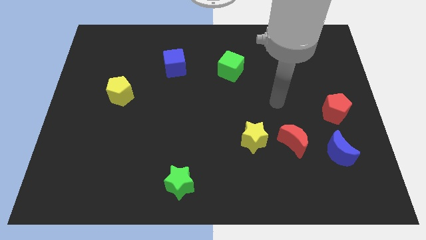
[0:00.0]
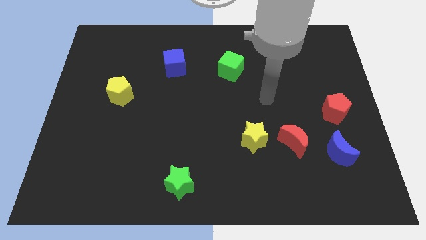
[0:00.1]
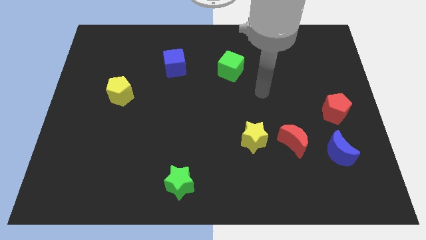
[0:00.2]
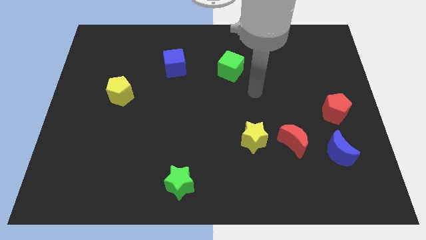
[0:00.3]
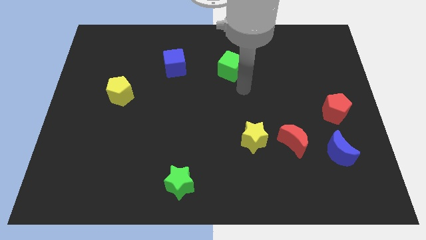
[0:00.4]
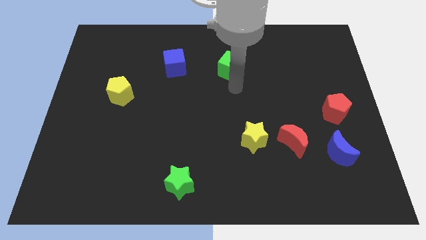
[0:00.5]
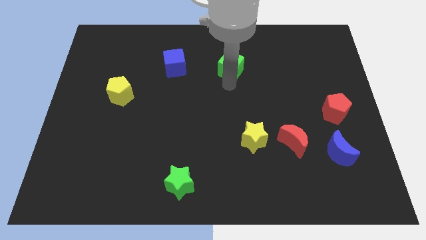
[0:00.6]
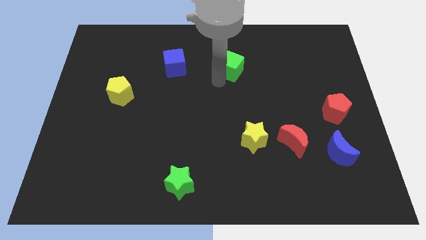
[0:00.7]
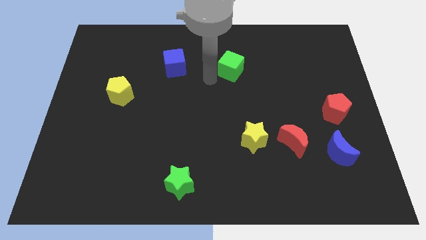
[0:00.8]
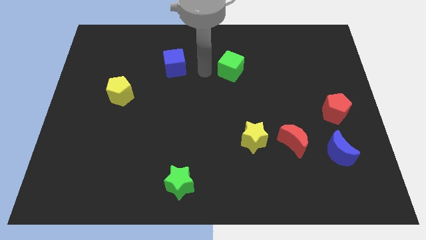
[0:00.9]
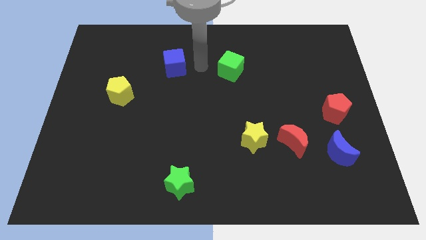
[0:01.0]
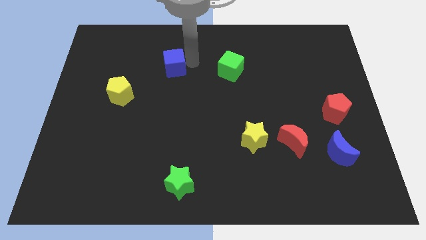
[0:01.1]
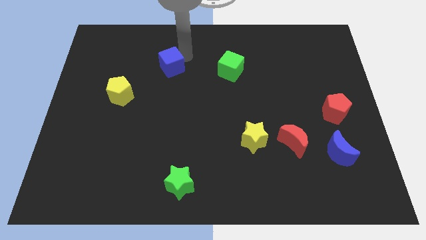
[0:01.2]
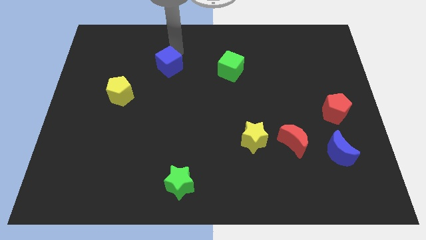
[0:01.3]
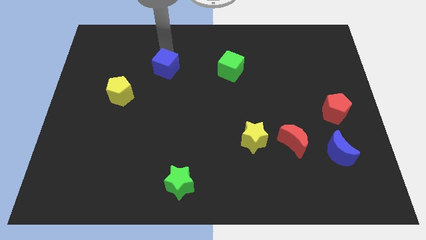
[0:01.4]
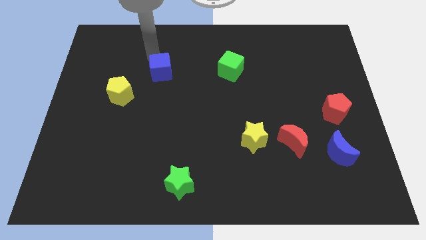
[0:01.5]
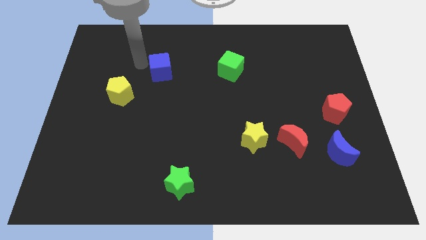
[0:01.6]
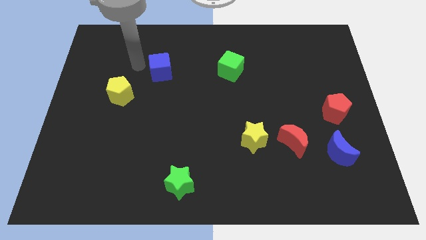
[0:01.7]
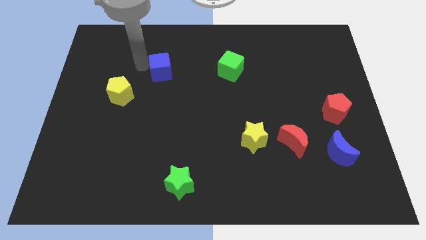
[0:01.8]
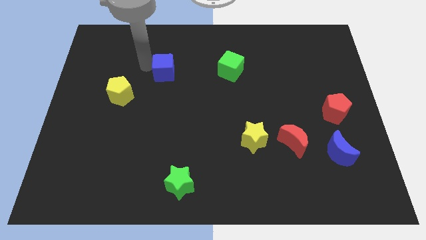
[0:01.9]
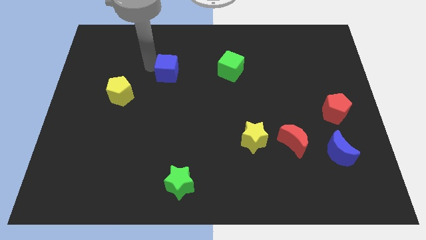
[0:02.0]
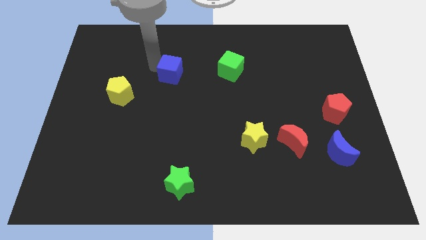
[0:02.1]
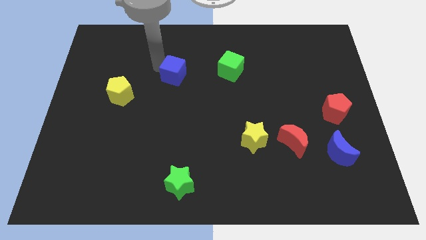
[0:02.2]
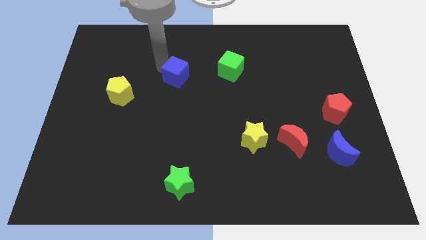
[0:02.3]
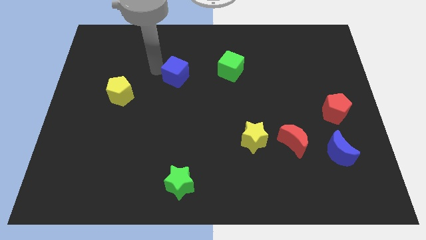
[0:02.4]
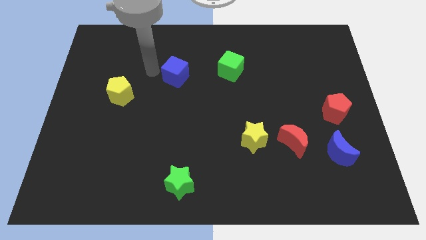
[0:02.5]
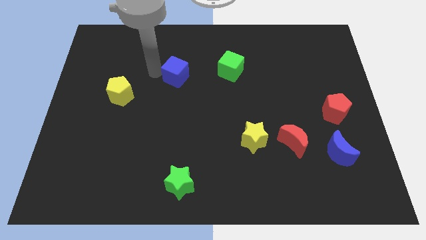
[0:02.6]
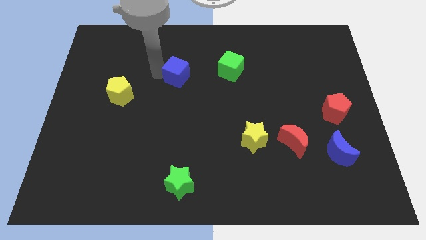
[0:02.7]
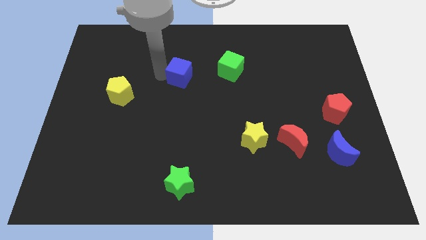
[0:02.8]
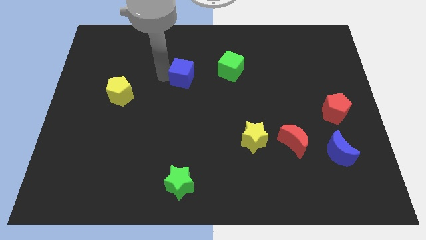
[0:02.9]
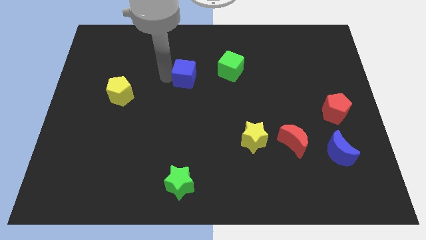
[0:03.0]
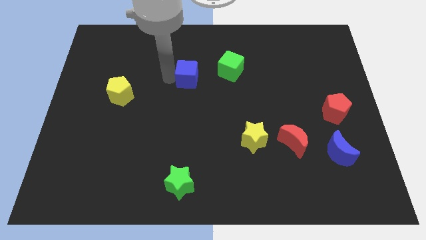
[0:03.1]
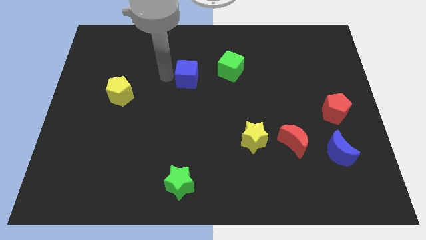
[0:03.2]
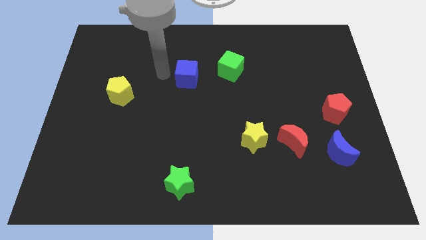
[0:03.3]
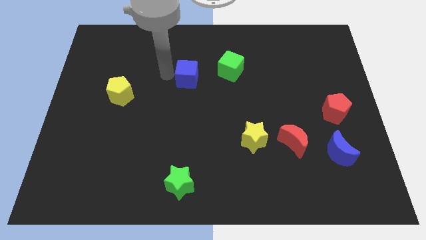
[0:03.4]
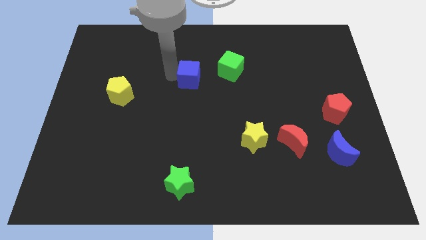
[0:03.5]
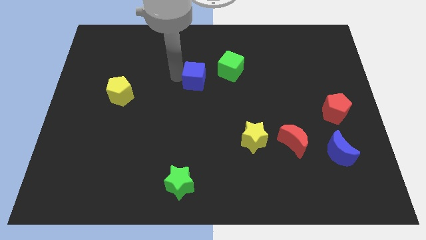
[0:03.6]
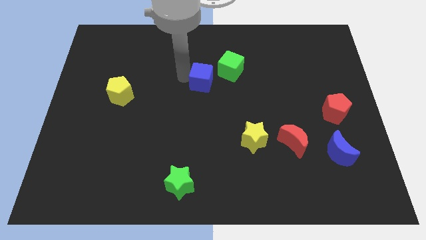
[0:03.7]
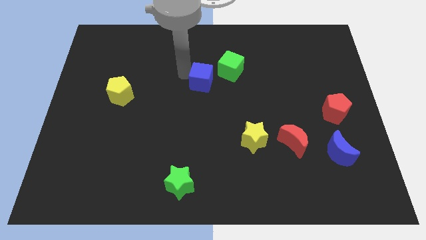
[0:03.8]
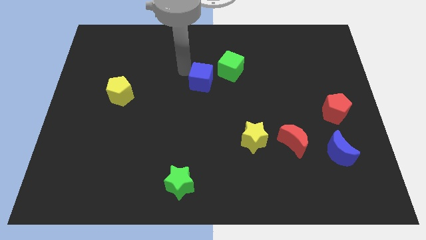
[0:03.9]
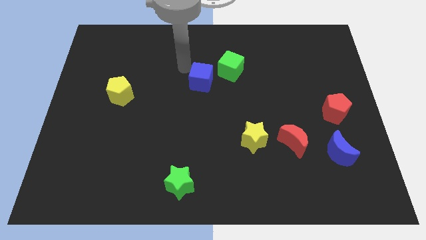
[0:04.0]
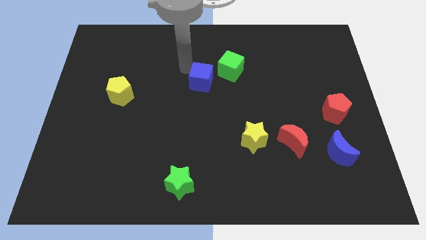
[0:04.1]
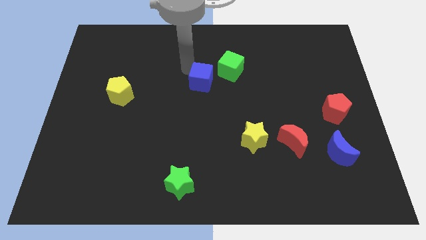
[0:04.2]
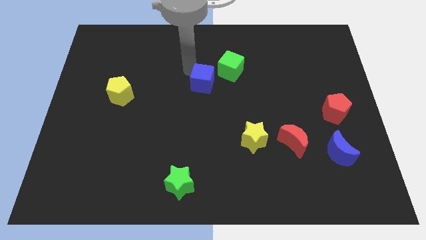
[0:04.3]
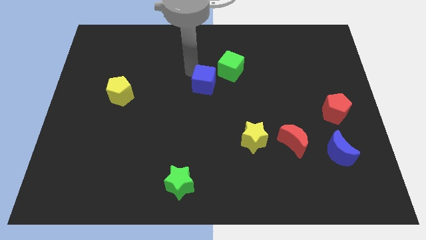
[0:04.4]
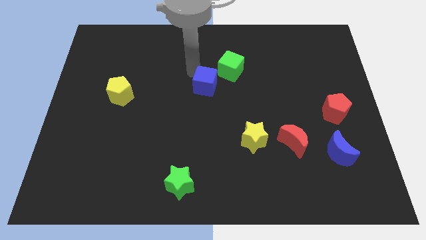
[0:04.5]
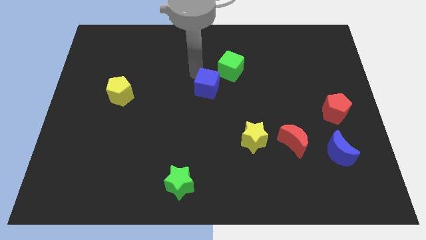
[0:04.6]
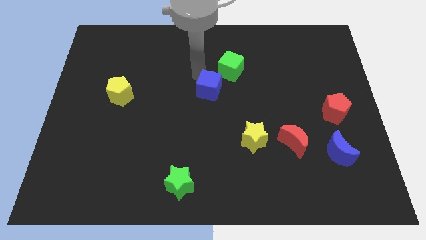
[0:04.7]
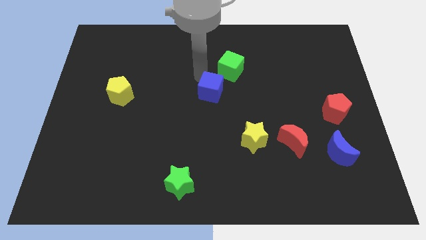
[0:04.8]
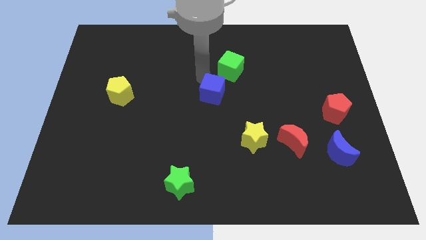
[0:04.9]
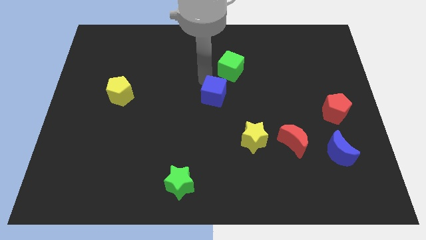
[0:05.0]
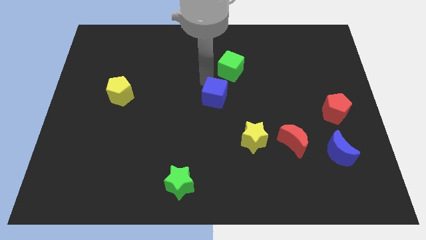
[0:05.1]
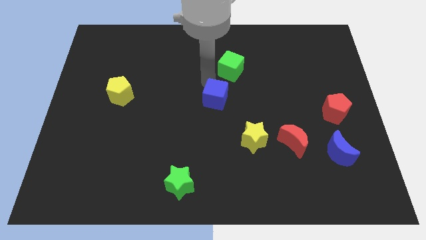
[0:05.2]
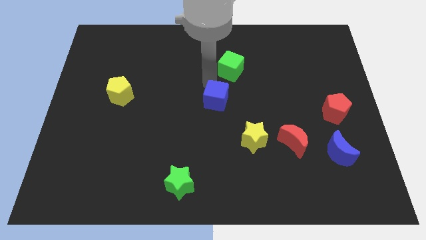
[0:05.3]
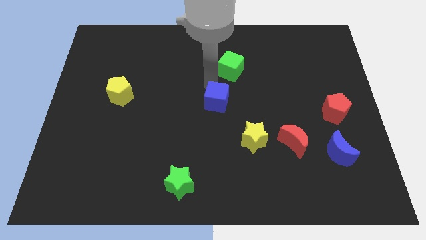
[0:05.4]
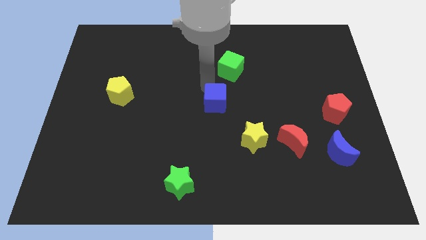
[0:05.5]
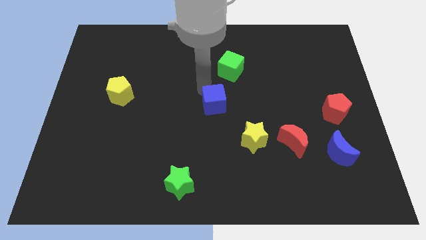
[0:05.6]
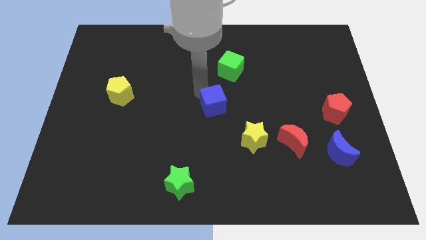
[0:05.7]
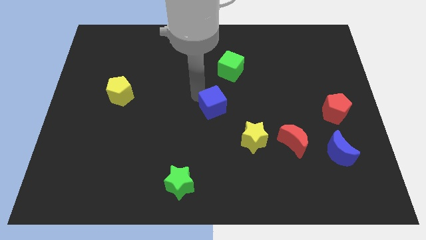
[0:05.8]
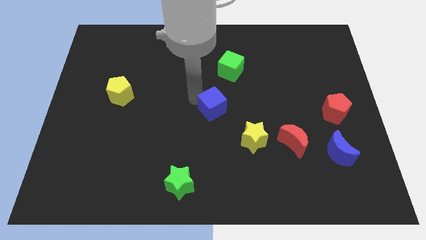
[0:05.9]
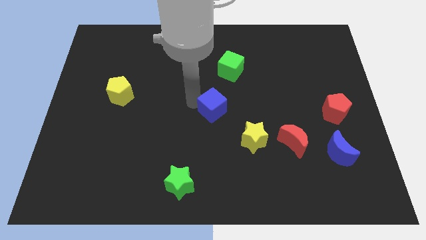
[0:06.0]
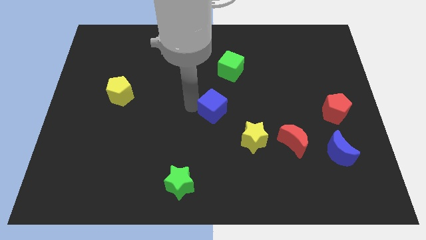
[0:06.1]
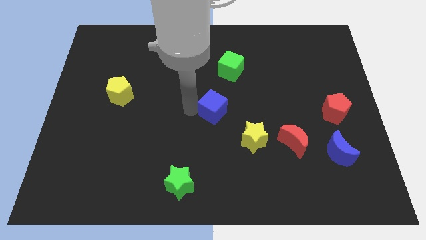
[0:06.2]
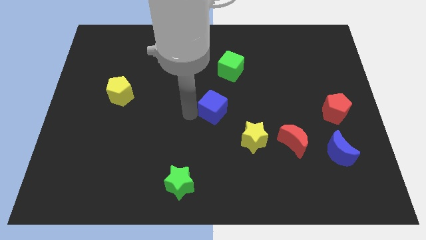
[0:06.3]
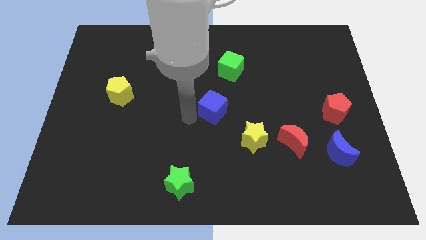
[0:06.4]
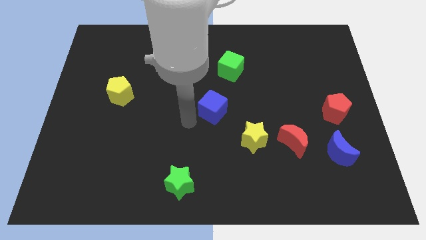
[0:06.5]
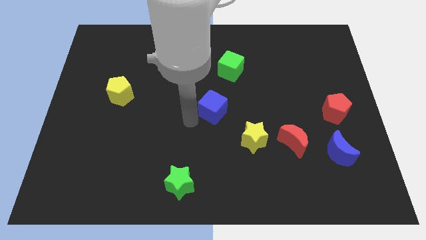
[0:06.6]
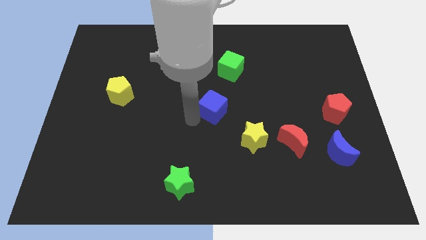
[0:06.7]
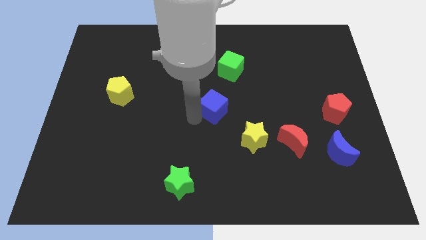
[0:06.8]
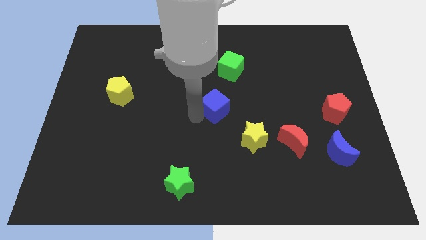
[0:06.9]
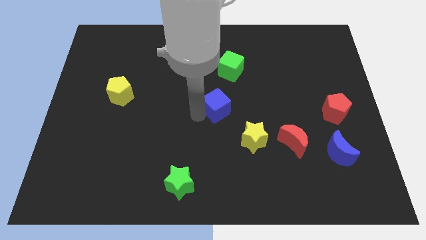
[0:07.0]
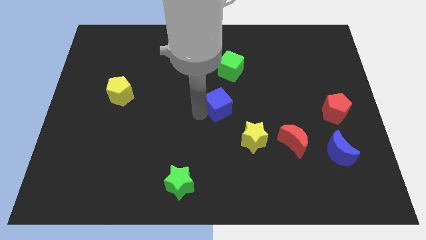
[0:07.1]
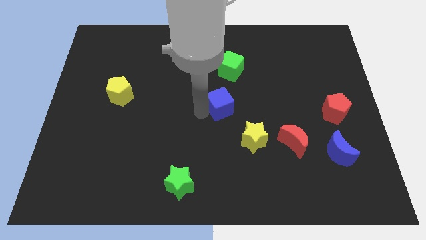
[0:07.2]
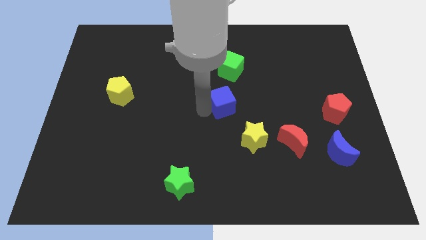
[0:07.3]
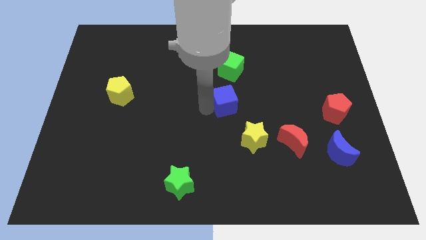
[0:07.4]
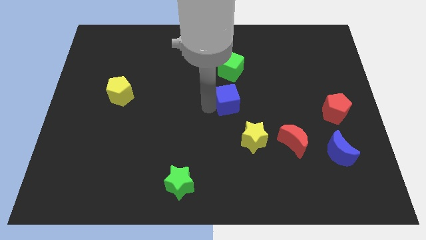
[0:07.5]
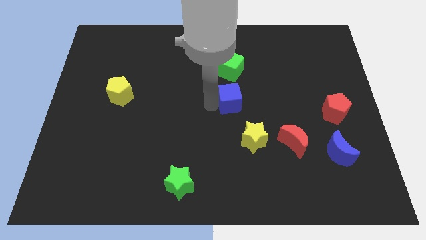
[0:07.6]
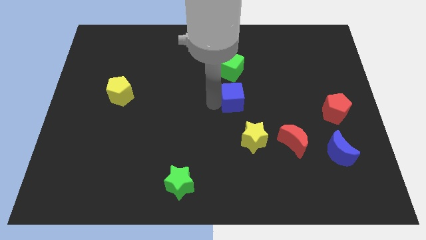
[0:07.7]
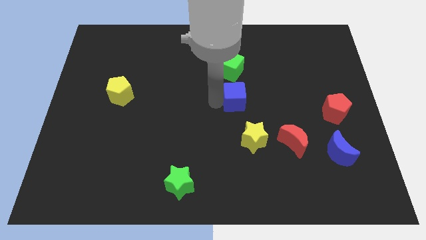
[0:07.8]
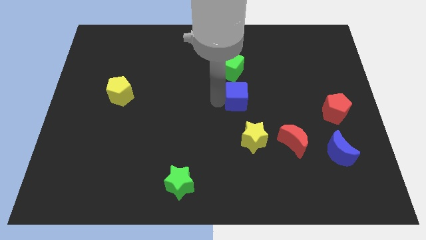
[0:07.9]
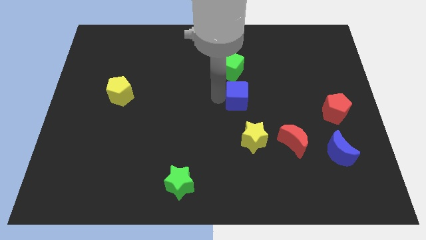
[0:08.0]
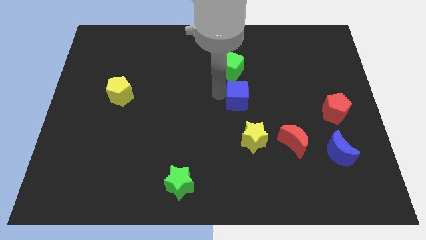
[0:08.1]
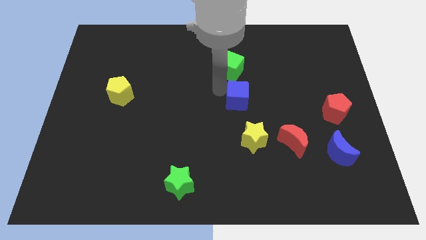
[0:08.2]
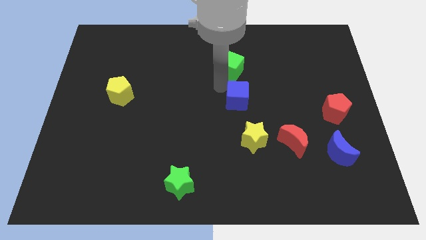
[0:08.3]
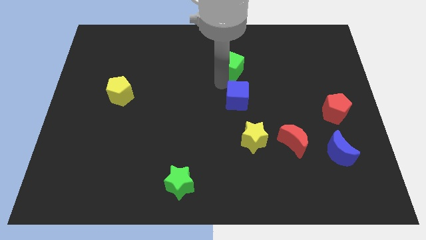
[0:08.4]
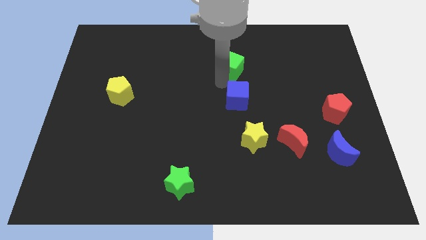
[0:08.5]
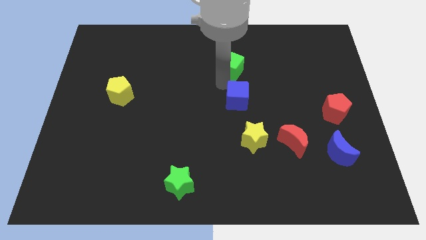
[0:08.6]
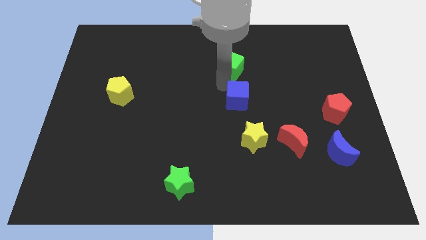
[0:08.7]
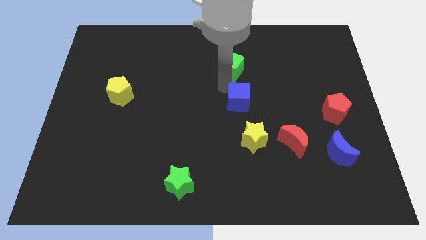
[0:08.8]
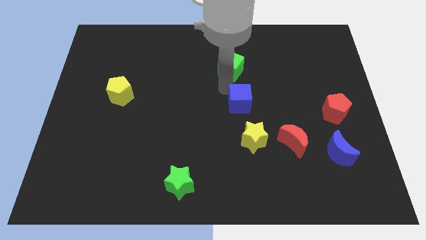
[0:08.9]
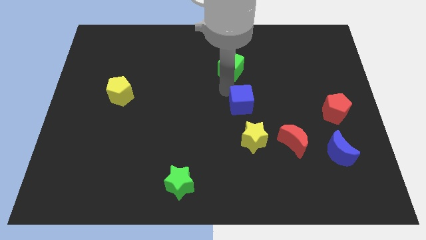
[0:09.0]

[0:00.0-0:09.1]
move the blue cube down and then right
